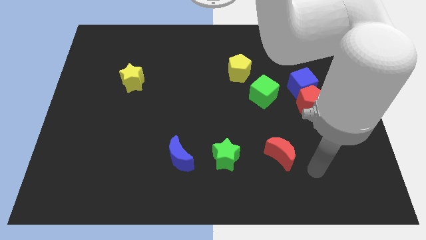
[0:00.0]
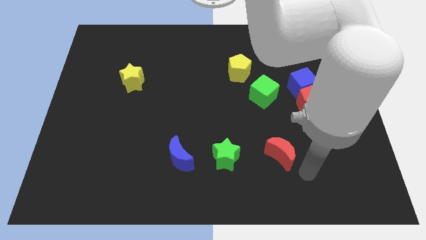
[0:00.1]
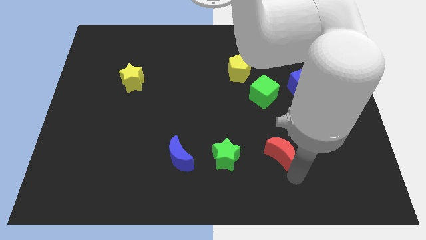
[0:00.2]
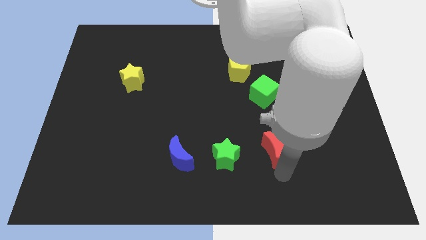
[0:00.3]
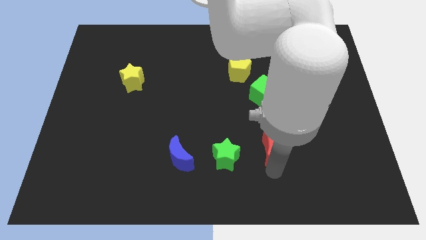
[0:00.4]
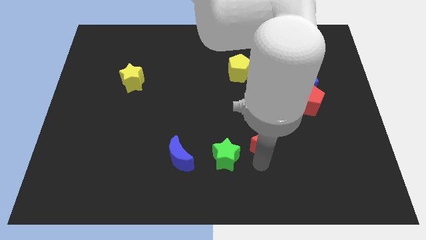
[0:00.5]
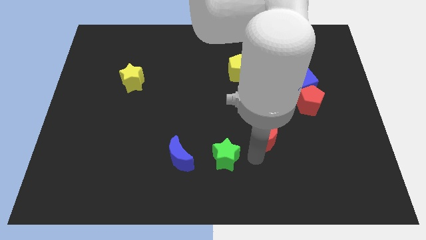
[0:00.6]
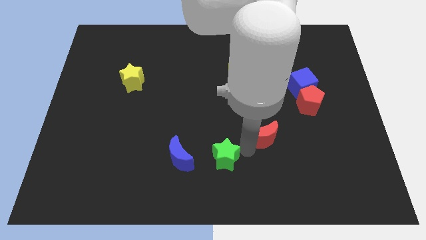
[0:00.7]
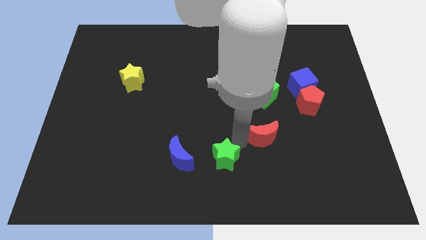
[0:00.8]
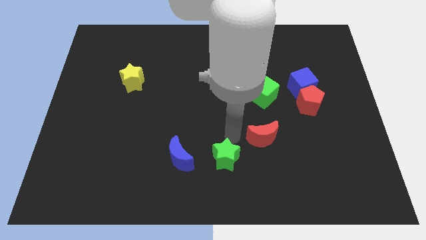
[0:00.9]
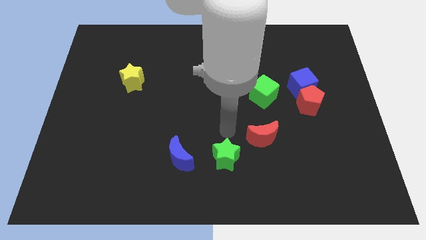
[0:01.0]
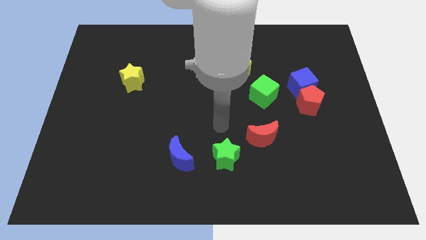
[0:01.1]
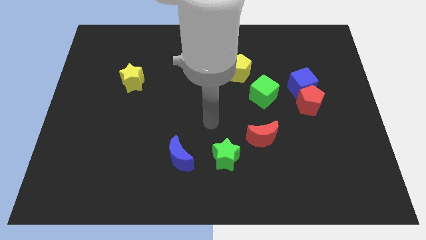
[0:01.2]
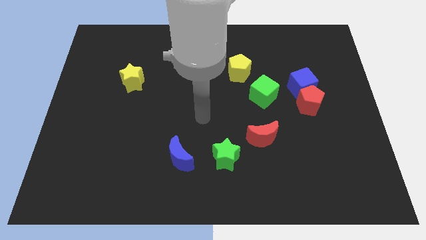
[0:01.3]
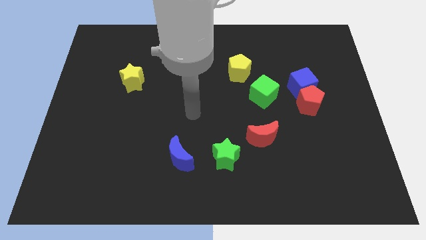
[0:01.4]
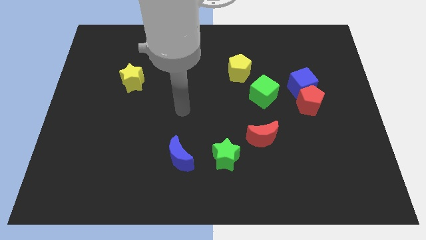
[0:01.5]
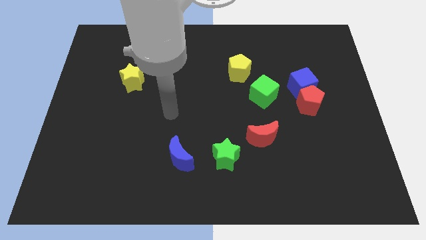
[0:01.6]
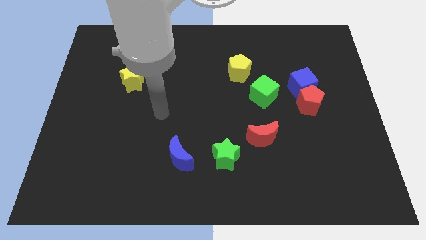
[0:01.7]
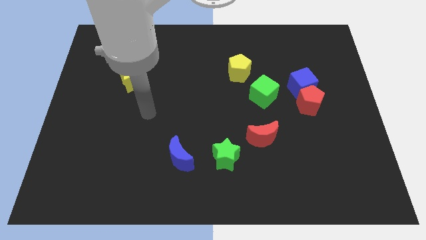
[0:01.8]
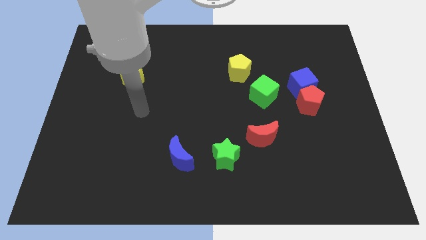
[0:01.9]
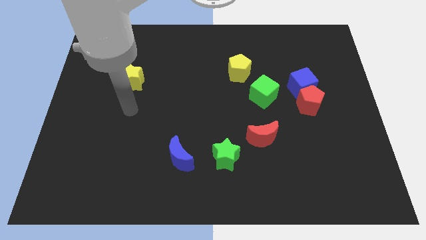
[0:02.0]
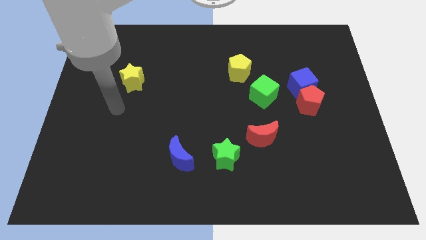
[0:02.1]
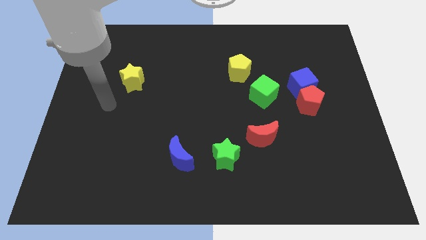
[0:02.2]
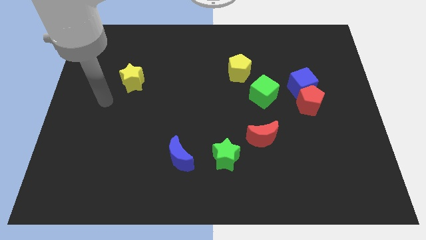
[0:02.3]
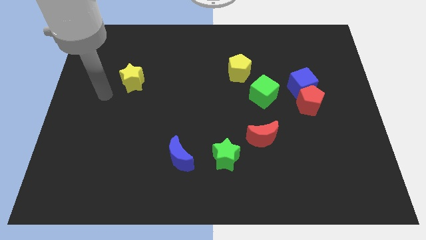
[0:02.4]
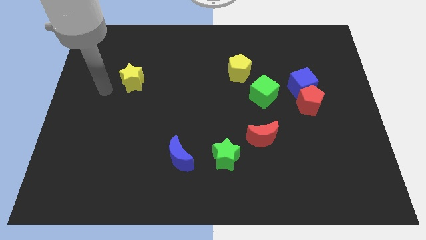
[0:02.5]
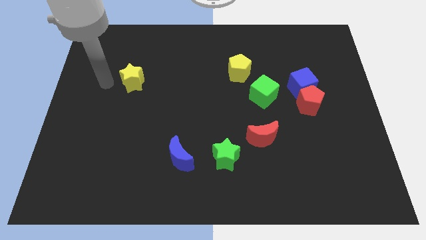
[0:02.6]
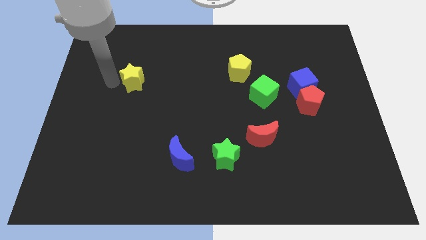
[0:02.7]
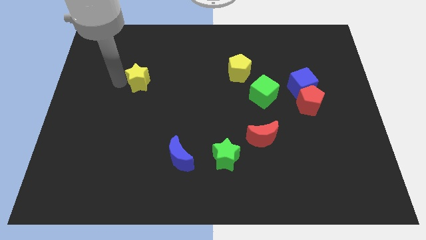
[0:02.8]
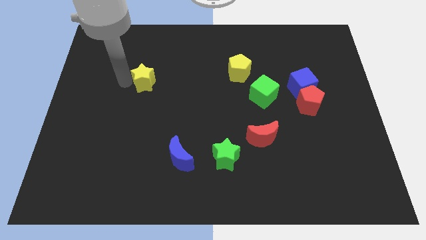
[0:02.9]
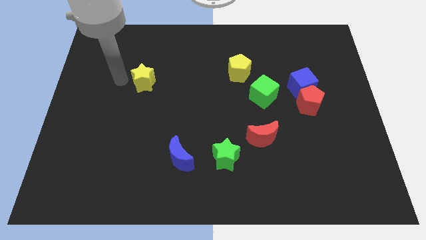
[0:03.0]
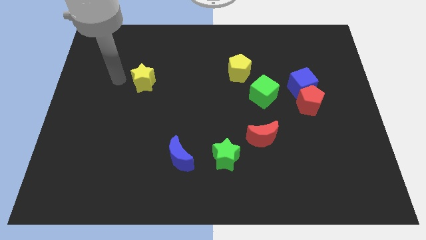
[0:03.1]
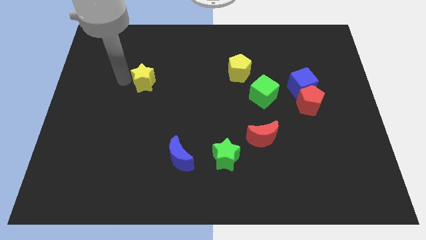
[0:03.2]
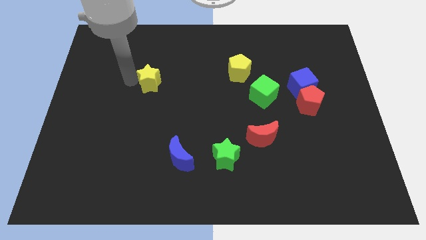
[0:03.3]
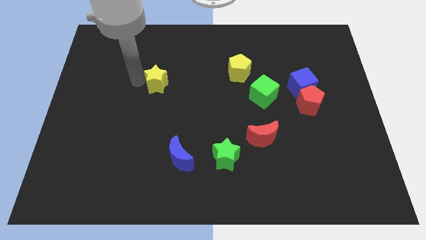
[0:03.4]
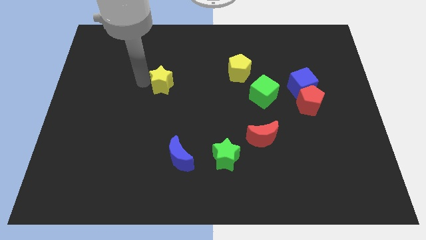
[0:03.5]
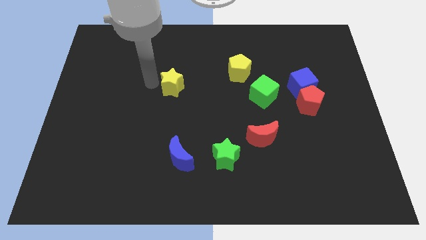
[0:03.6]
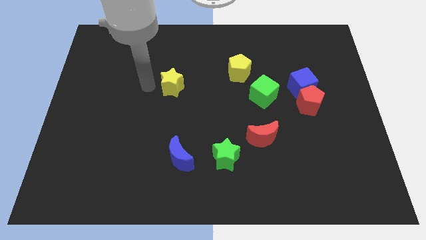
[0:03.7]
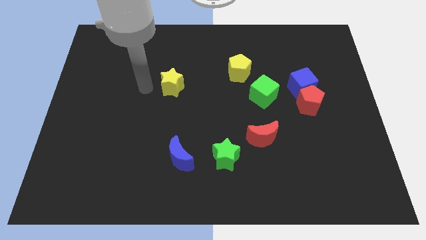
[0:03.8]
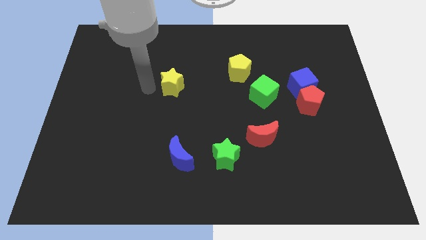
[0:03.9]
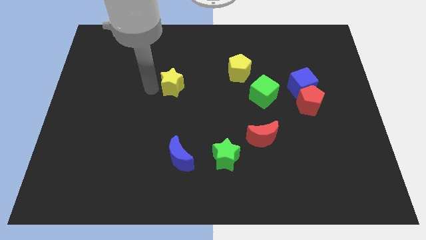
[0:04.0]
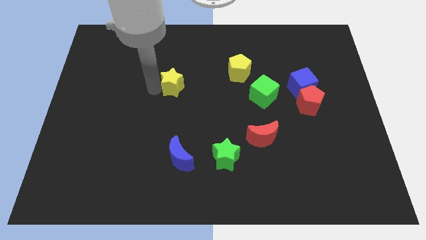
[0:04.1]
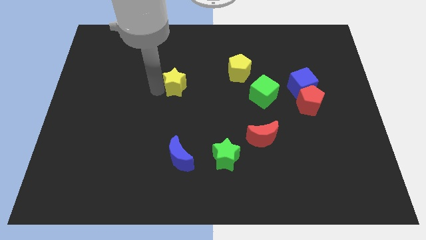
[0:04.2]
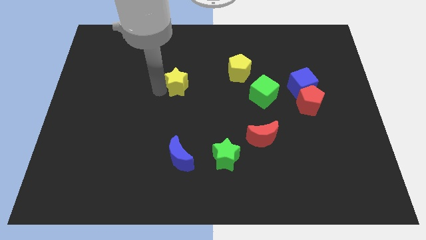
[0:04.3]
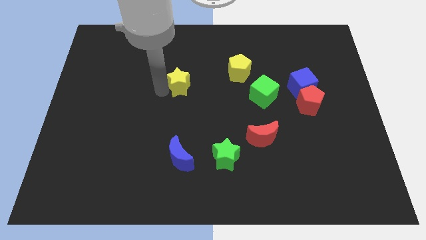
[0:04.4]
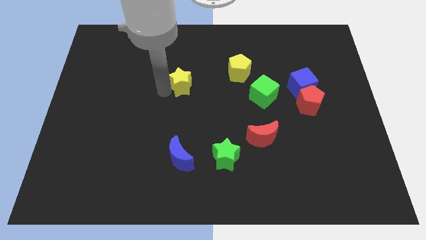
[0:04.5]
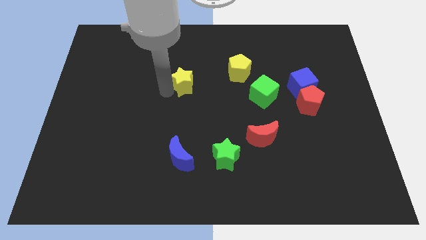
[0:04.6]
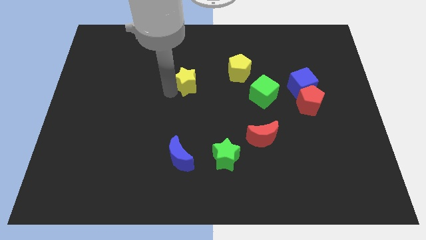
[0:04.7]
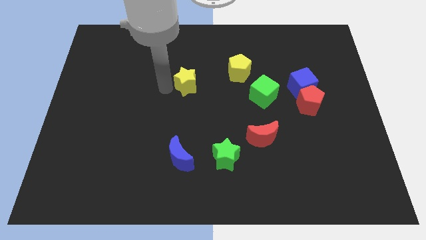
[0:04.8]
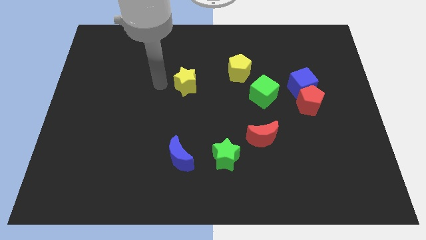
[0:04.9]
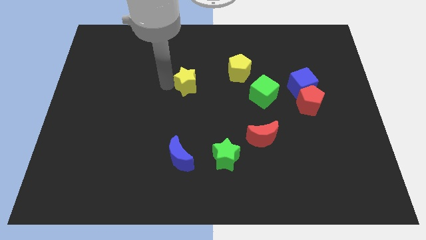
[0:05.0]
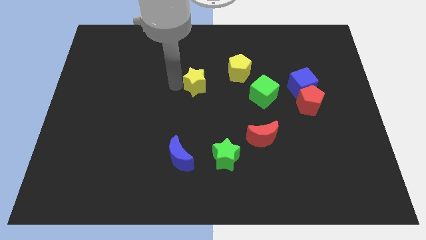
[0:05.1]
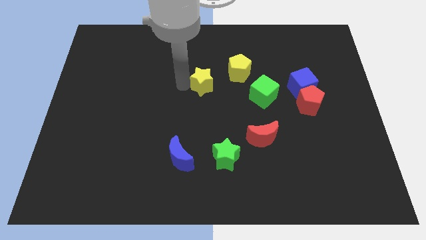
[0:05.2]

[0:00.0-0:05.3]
slide the yellow star to the bottom left side of the yellow pentagon

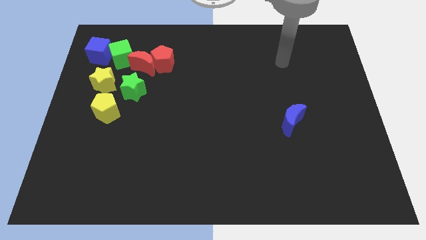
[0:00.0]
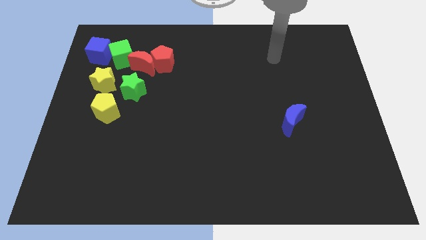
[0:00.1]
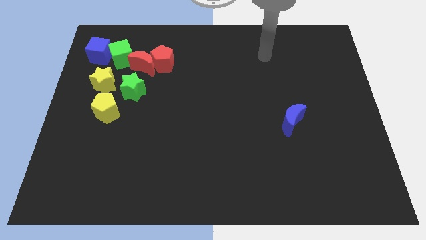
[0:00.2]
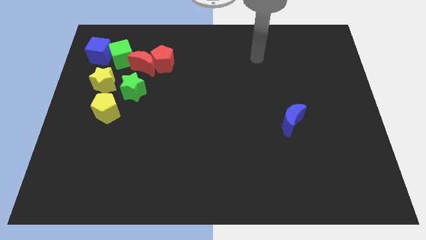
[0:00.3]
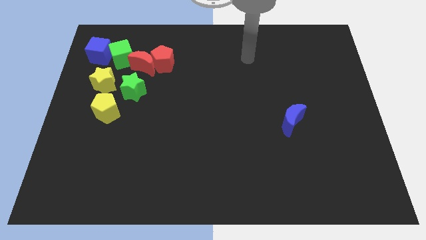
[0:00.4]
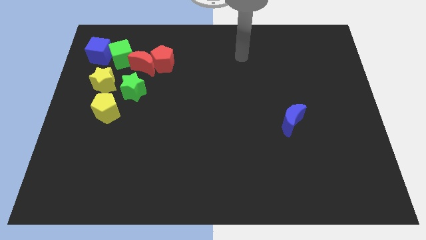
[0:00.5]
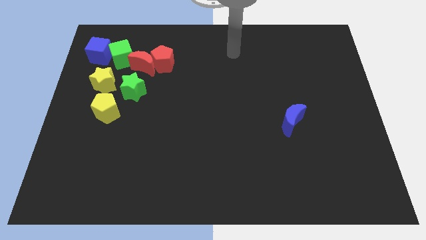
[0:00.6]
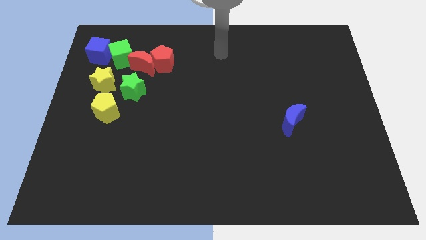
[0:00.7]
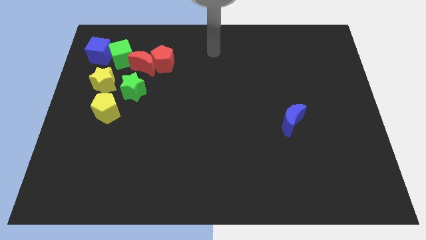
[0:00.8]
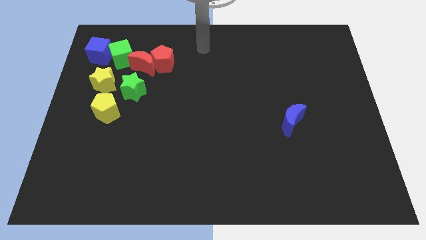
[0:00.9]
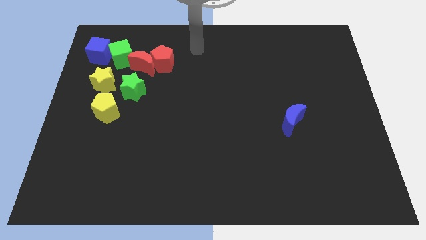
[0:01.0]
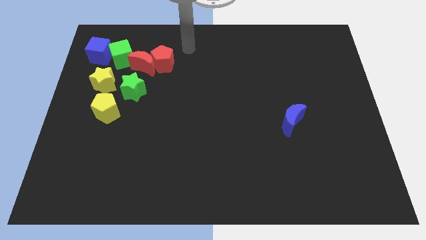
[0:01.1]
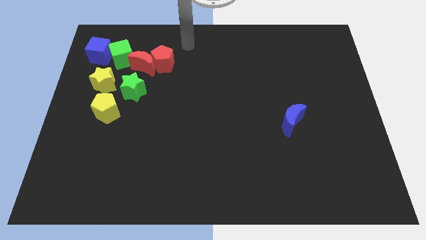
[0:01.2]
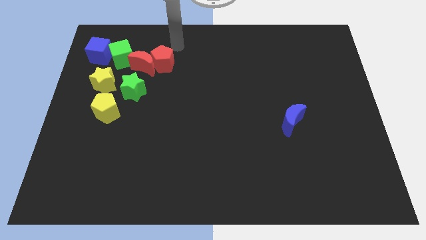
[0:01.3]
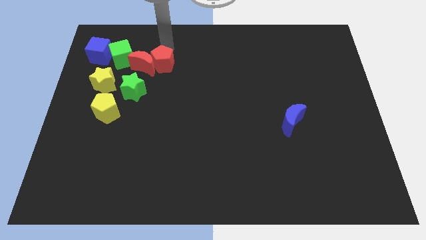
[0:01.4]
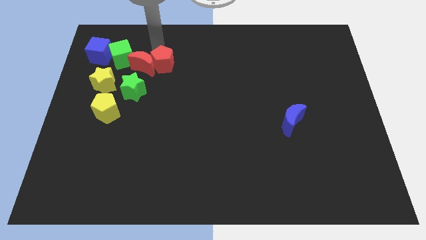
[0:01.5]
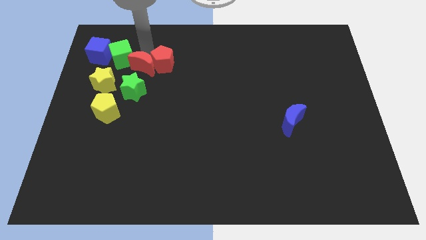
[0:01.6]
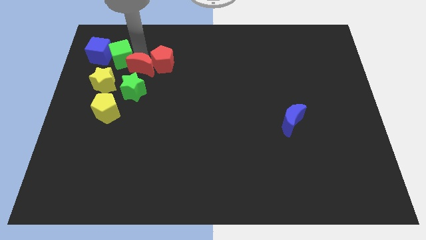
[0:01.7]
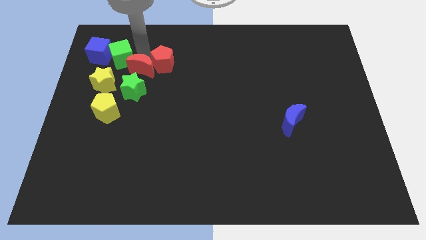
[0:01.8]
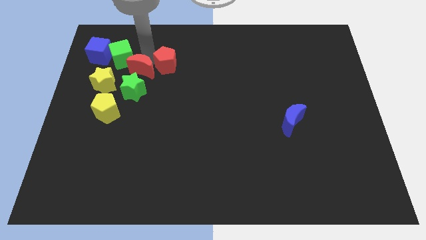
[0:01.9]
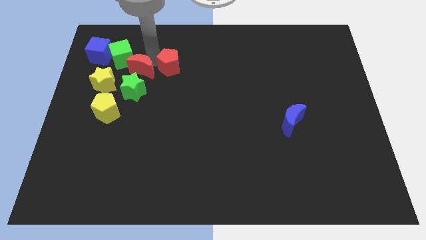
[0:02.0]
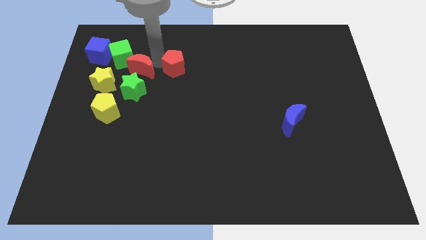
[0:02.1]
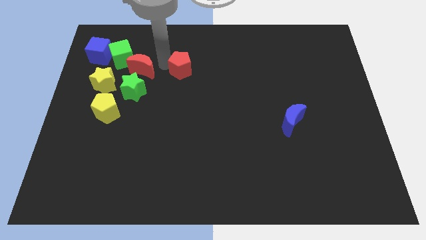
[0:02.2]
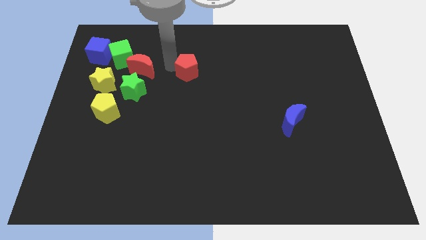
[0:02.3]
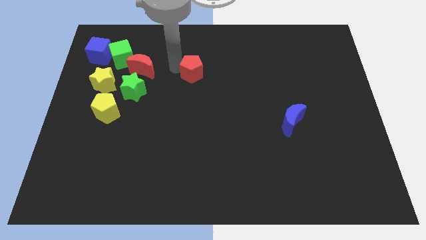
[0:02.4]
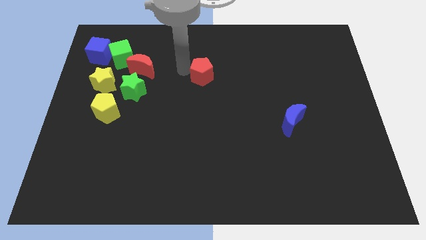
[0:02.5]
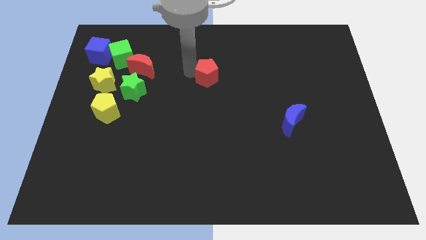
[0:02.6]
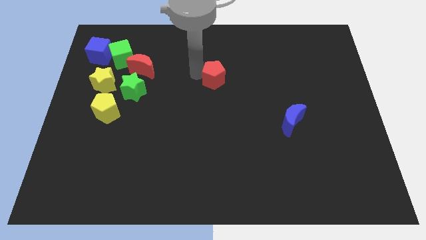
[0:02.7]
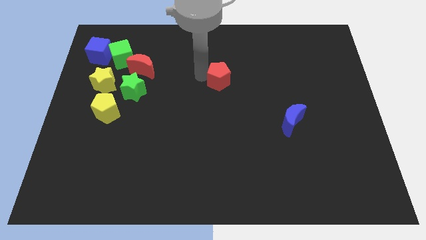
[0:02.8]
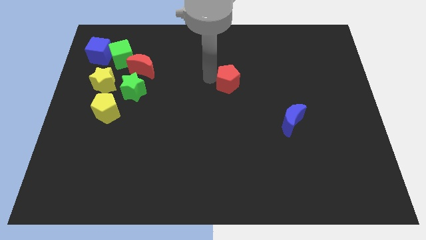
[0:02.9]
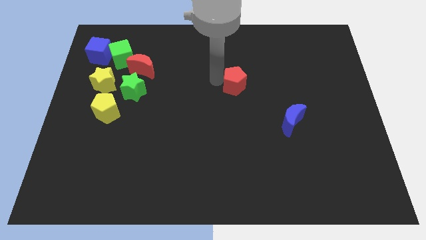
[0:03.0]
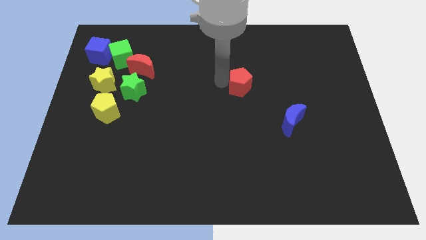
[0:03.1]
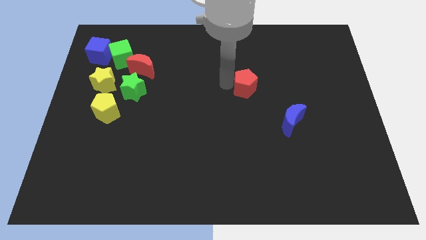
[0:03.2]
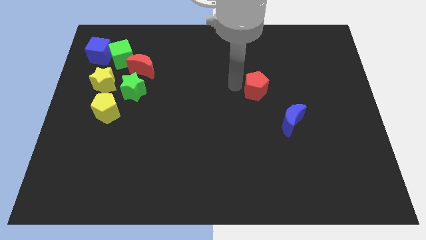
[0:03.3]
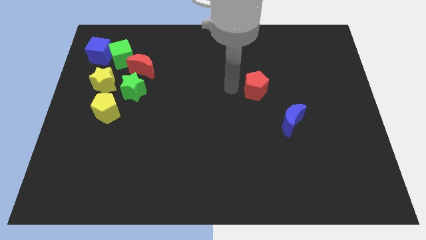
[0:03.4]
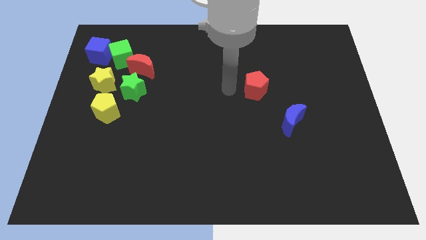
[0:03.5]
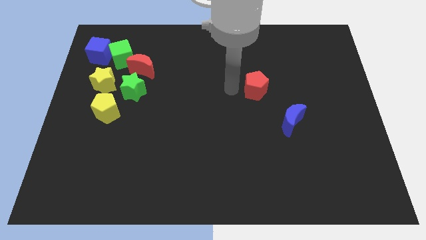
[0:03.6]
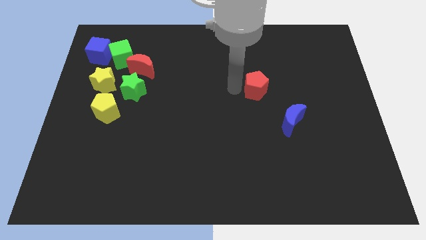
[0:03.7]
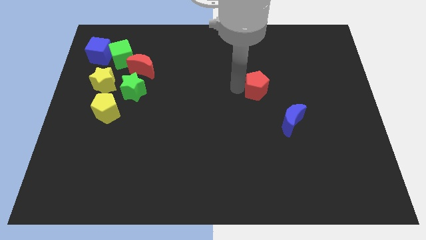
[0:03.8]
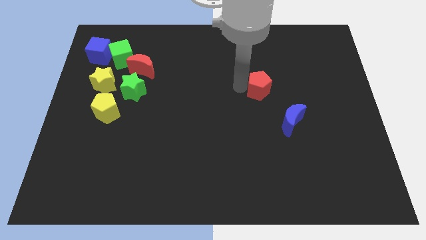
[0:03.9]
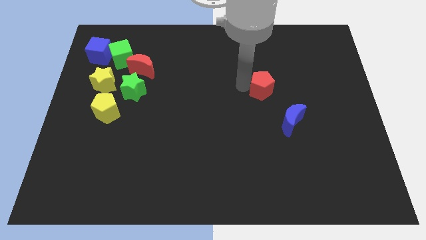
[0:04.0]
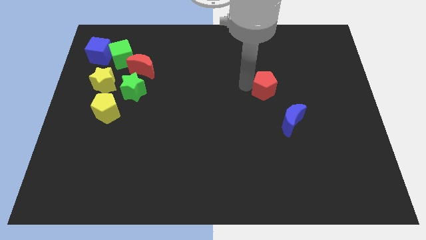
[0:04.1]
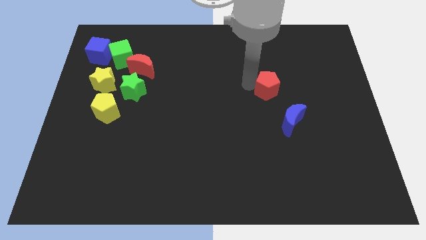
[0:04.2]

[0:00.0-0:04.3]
slide the red pentagon to the top of the blue moon
